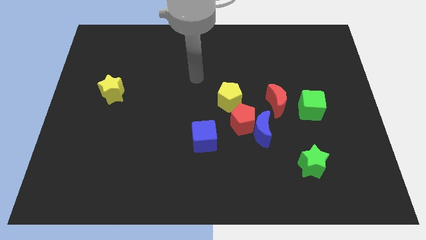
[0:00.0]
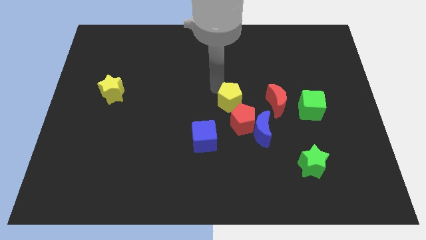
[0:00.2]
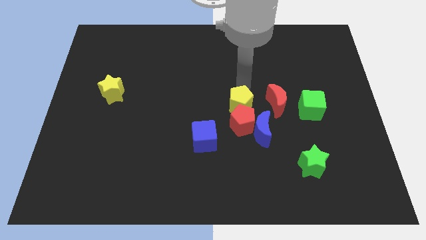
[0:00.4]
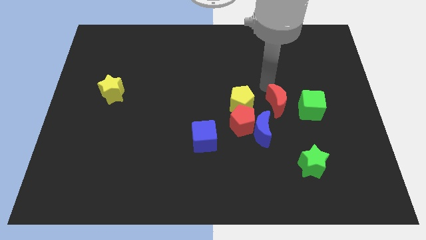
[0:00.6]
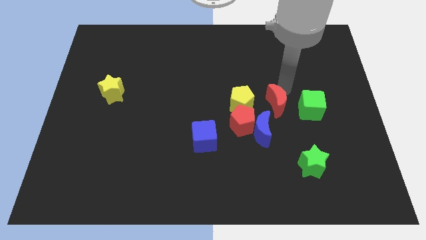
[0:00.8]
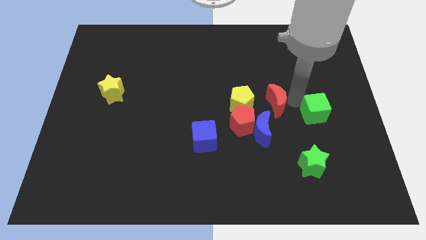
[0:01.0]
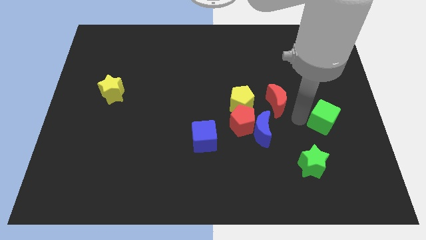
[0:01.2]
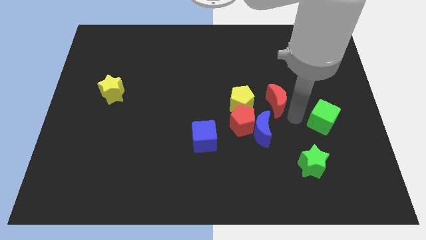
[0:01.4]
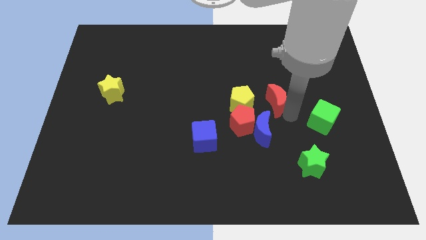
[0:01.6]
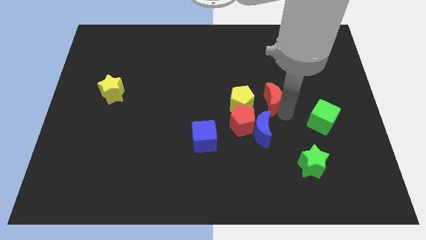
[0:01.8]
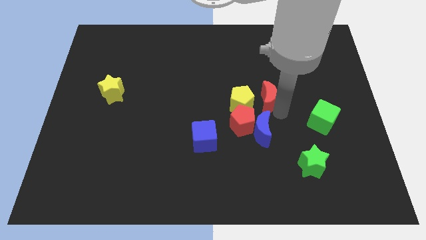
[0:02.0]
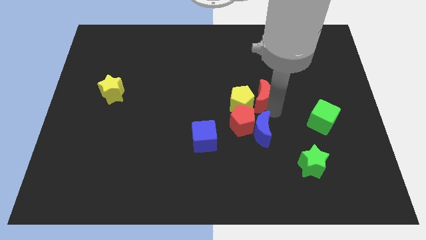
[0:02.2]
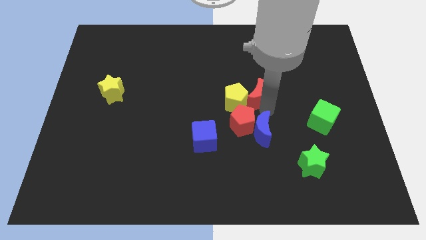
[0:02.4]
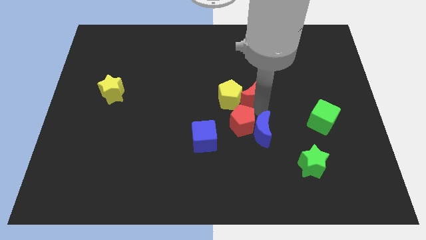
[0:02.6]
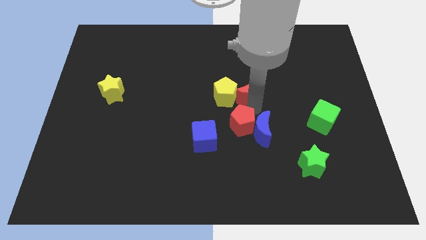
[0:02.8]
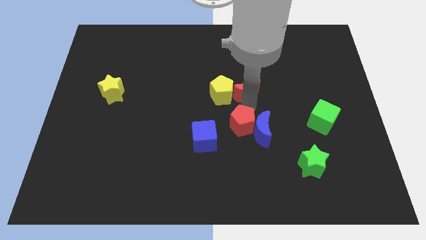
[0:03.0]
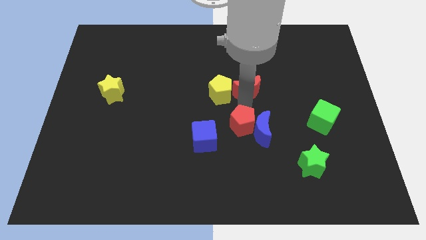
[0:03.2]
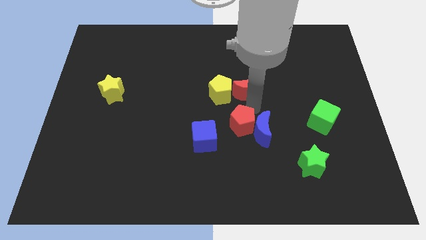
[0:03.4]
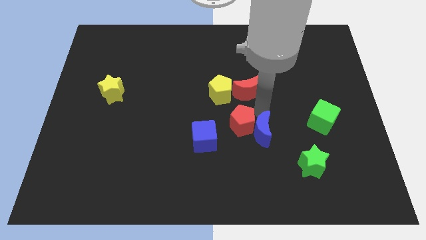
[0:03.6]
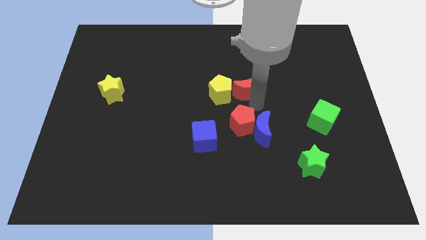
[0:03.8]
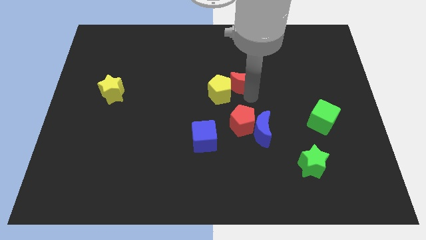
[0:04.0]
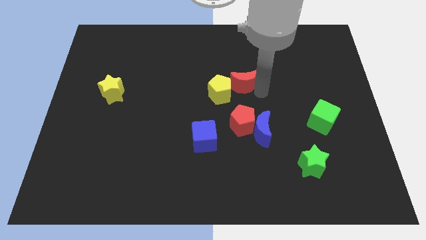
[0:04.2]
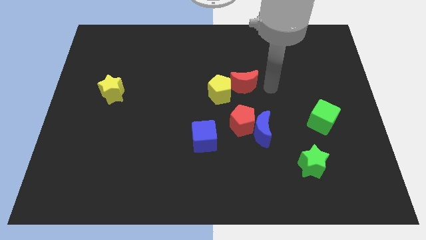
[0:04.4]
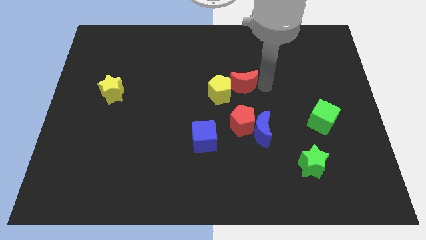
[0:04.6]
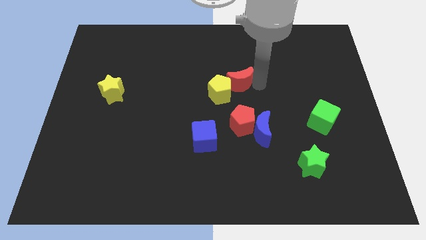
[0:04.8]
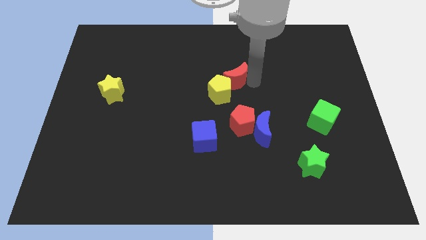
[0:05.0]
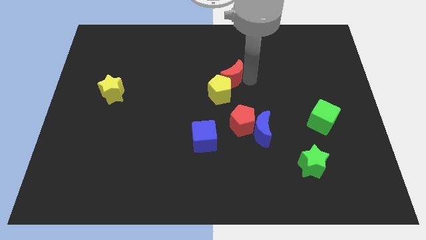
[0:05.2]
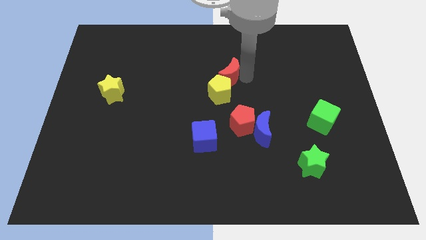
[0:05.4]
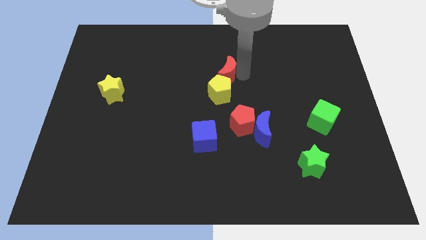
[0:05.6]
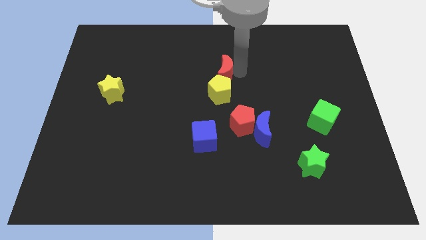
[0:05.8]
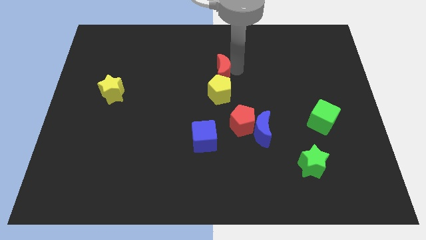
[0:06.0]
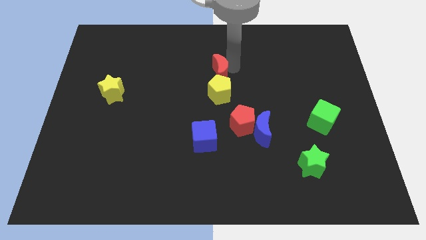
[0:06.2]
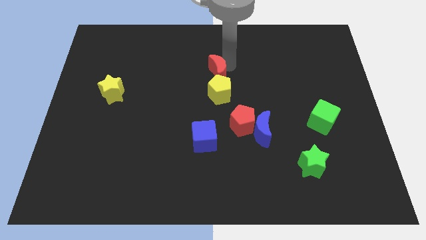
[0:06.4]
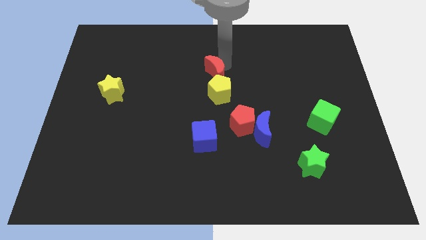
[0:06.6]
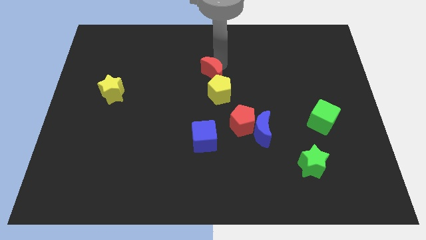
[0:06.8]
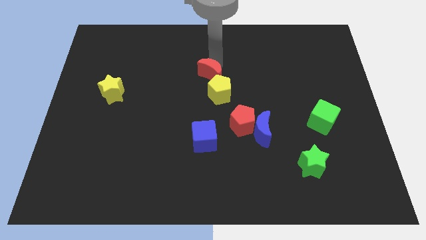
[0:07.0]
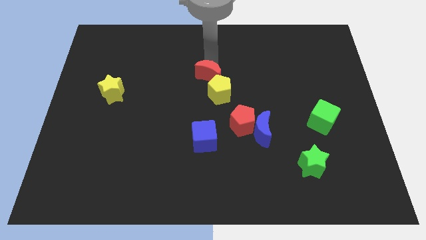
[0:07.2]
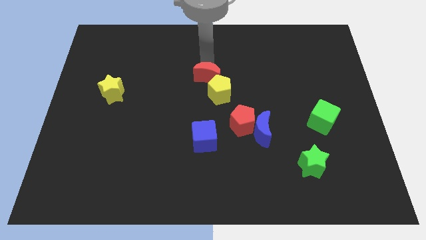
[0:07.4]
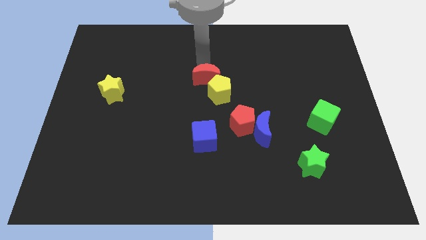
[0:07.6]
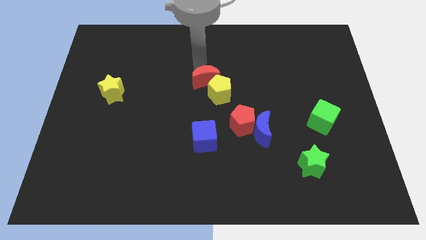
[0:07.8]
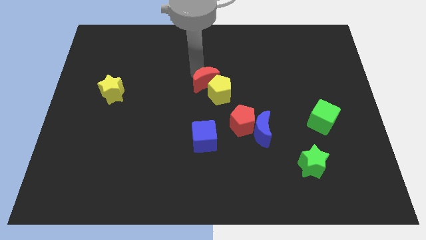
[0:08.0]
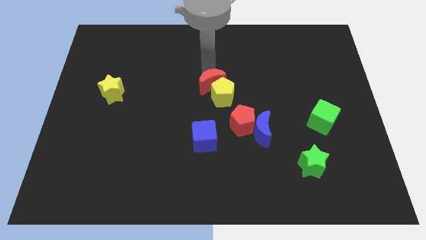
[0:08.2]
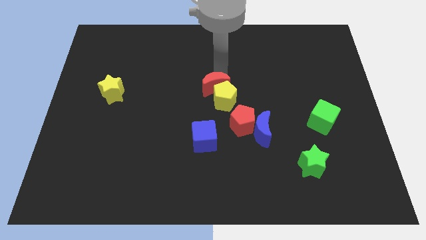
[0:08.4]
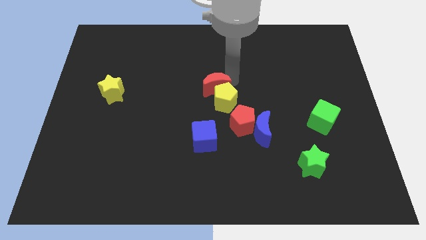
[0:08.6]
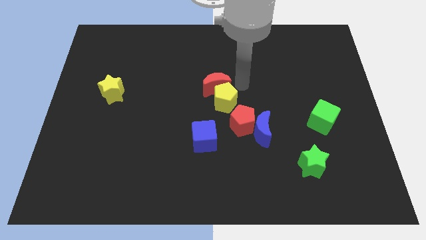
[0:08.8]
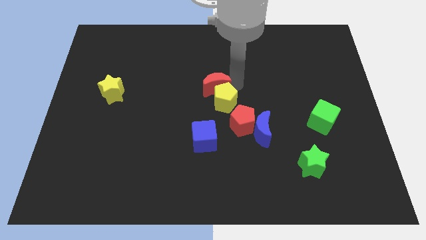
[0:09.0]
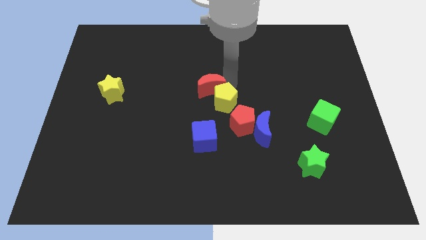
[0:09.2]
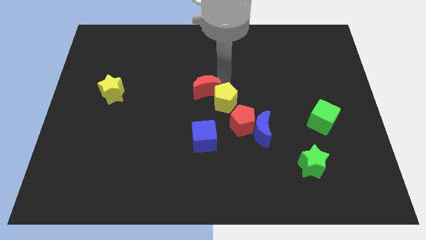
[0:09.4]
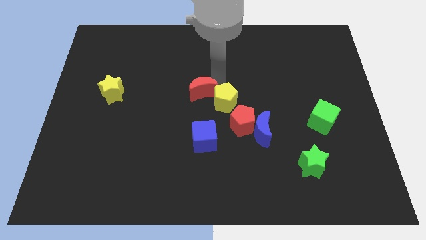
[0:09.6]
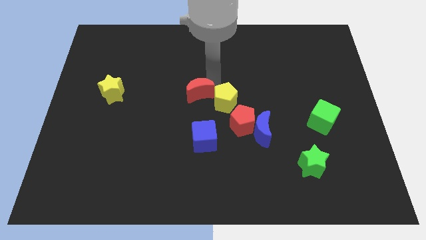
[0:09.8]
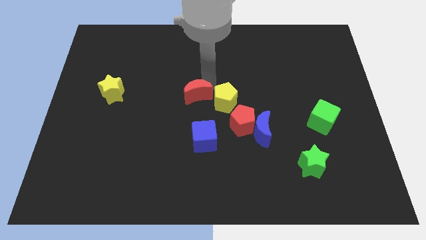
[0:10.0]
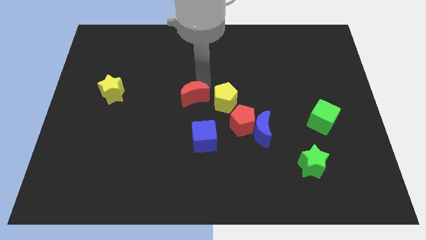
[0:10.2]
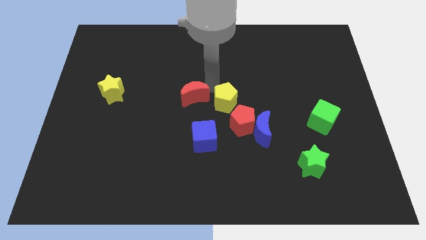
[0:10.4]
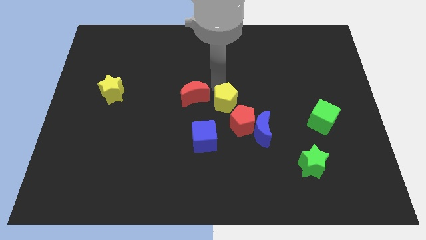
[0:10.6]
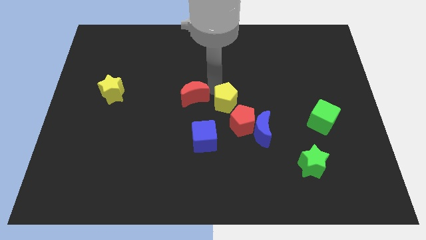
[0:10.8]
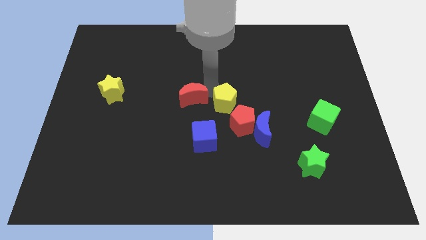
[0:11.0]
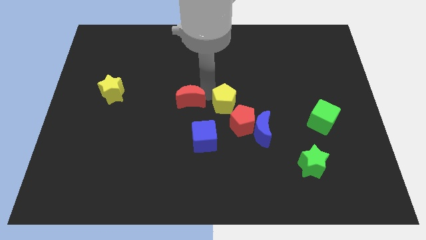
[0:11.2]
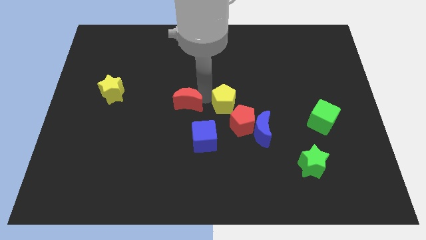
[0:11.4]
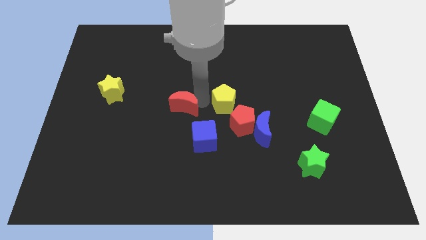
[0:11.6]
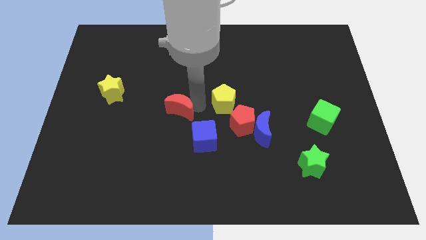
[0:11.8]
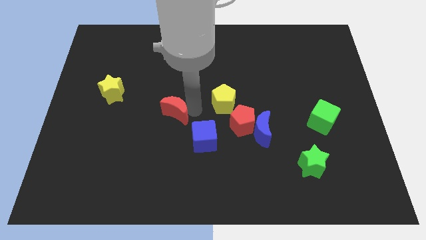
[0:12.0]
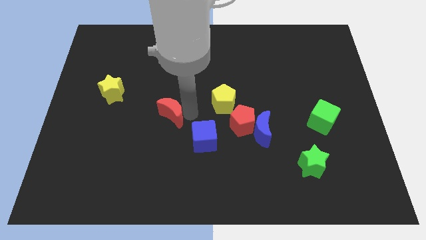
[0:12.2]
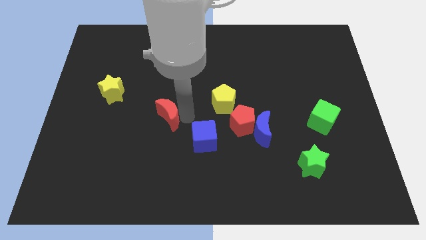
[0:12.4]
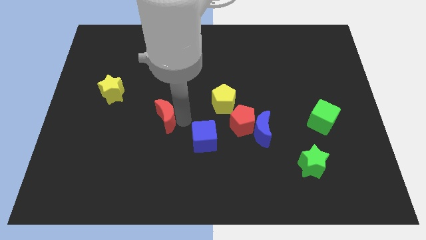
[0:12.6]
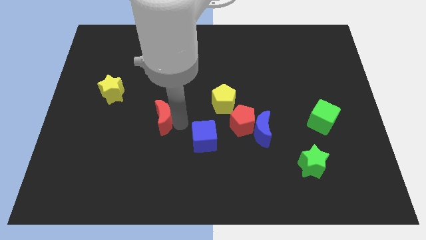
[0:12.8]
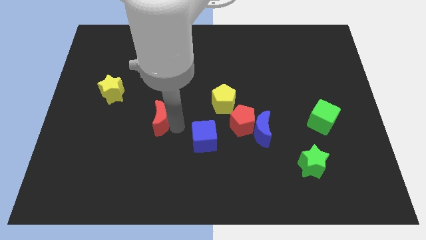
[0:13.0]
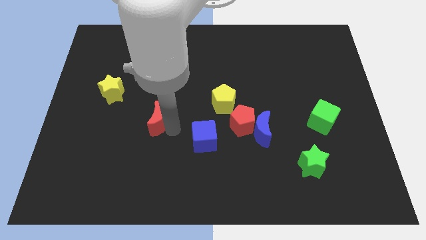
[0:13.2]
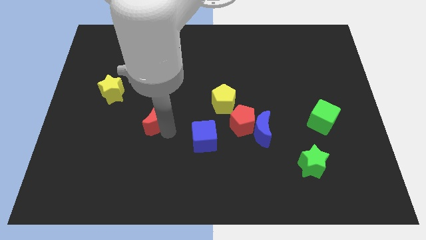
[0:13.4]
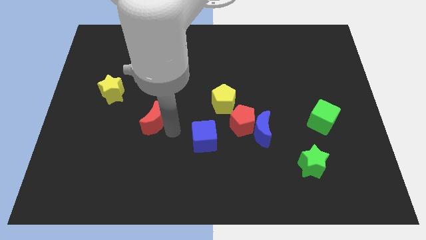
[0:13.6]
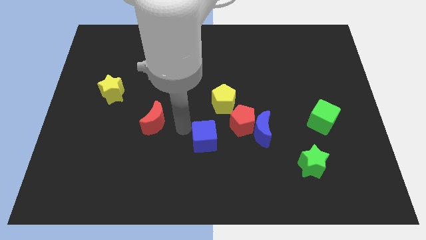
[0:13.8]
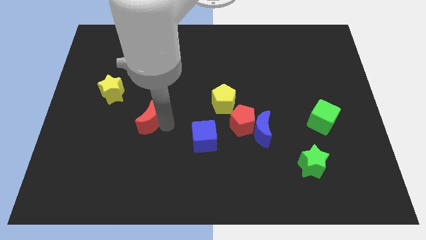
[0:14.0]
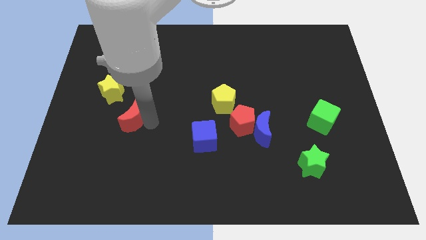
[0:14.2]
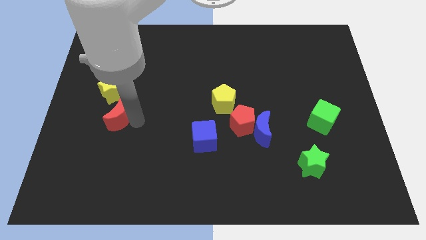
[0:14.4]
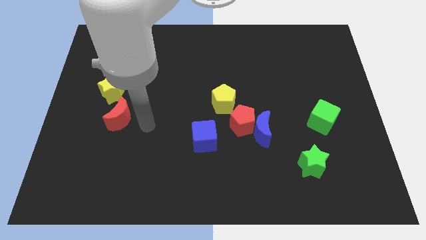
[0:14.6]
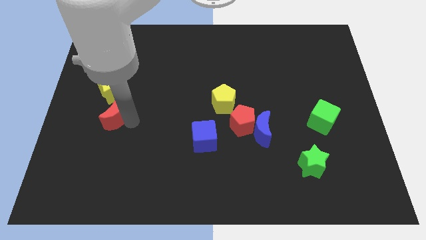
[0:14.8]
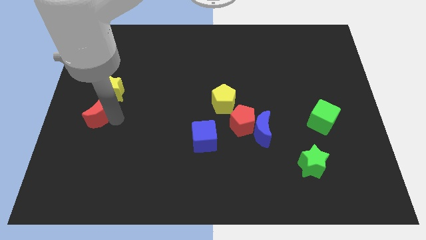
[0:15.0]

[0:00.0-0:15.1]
slide the red moon to the center left
